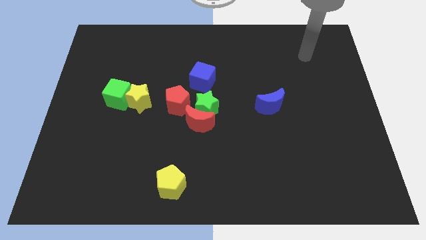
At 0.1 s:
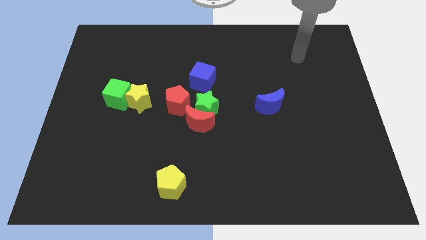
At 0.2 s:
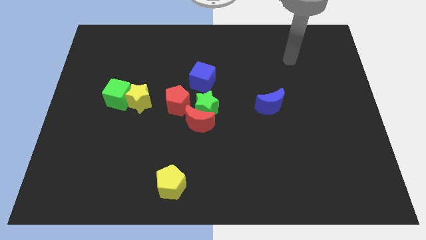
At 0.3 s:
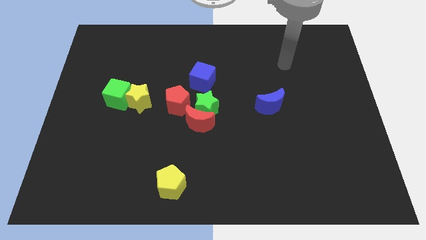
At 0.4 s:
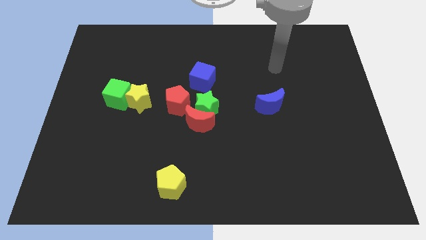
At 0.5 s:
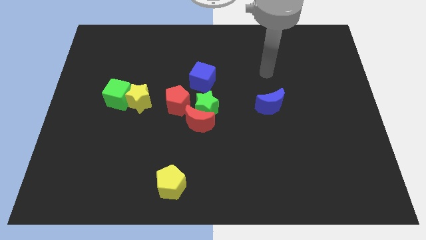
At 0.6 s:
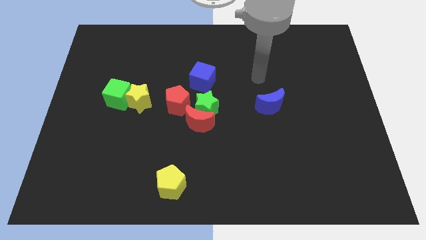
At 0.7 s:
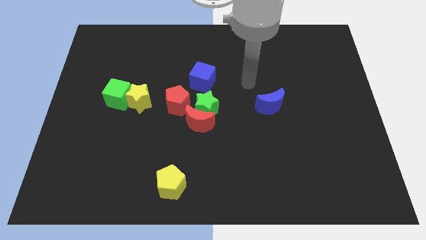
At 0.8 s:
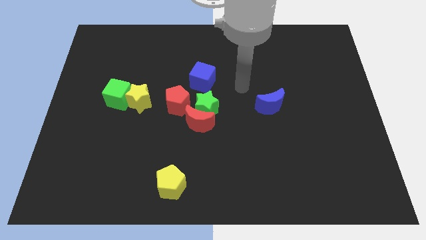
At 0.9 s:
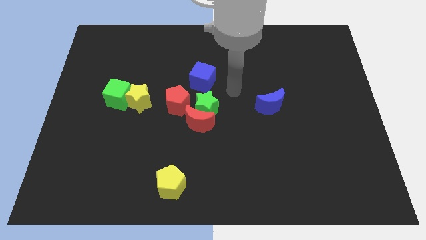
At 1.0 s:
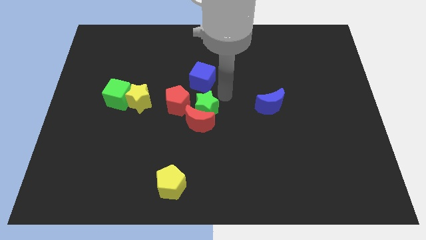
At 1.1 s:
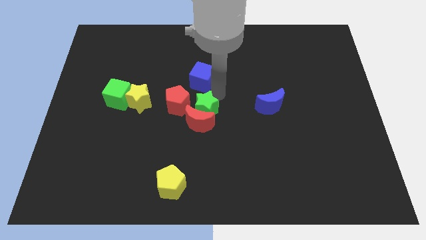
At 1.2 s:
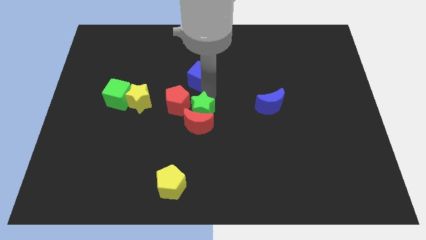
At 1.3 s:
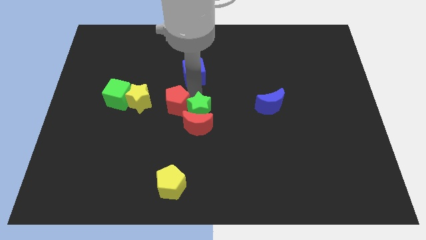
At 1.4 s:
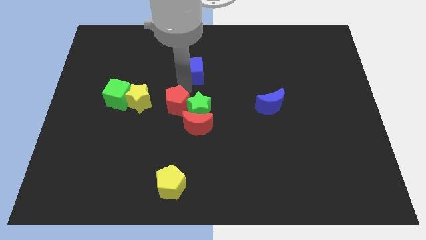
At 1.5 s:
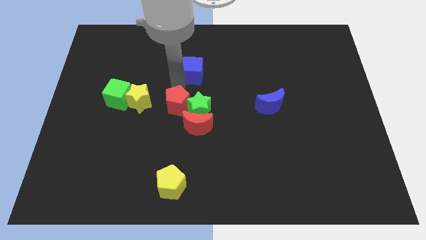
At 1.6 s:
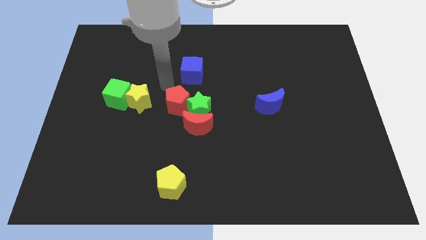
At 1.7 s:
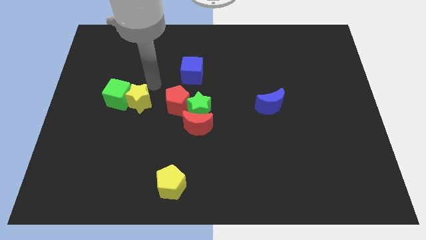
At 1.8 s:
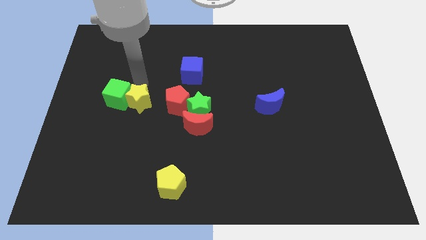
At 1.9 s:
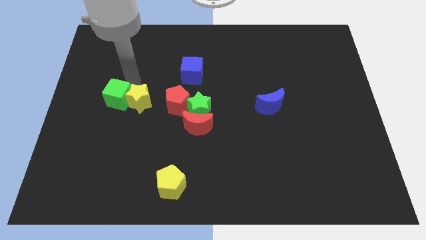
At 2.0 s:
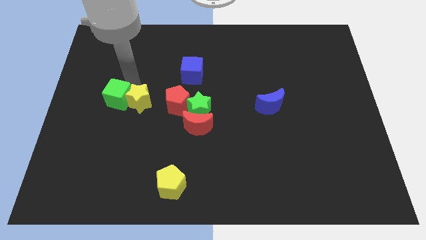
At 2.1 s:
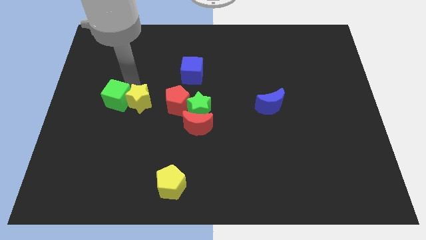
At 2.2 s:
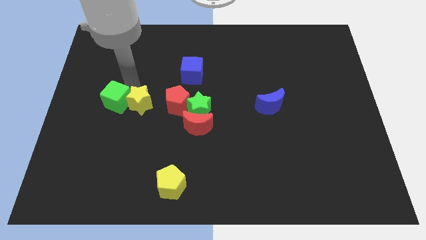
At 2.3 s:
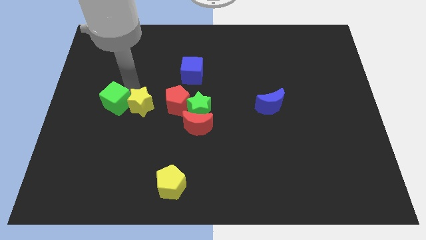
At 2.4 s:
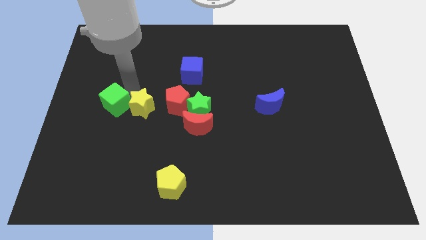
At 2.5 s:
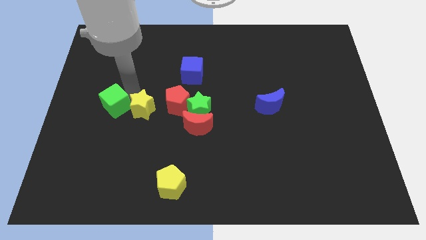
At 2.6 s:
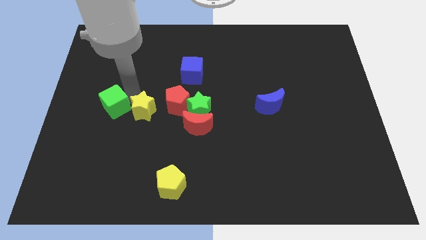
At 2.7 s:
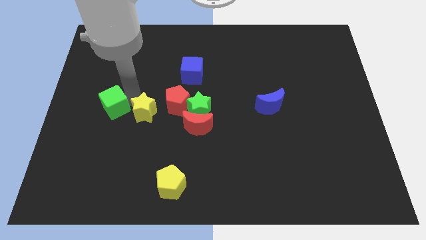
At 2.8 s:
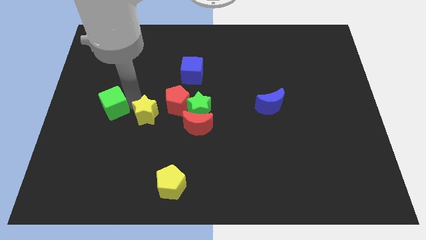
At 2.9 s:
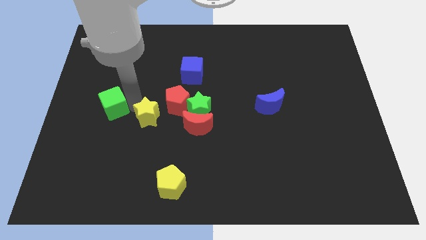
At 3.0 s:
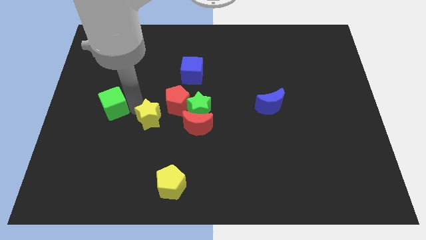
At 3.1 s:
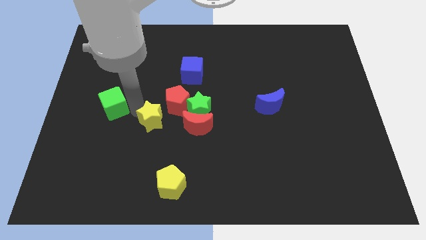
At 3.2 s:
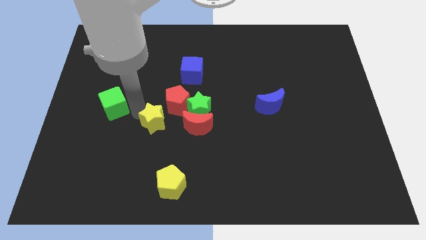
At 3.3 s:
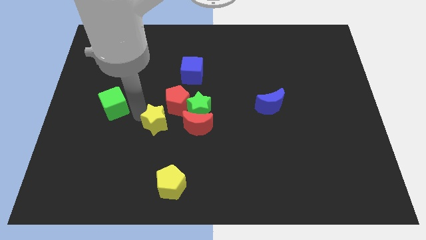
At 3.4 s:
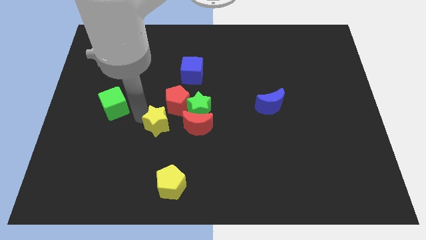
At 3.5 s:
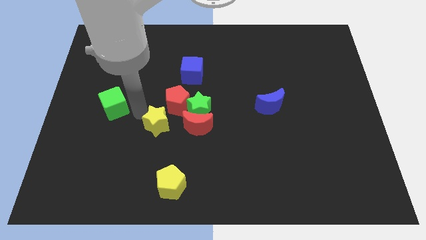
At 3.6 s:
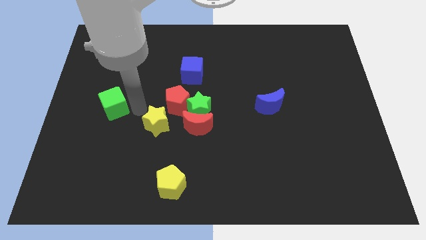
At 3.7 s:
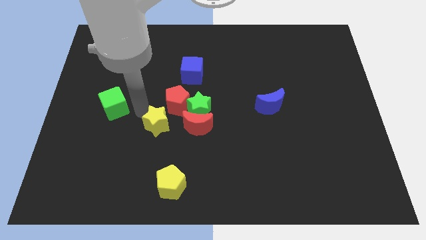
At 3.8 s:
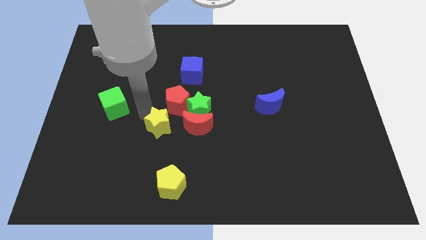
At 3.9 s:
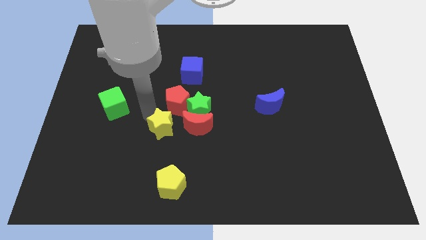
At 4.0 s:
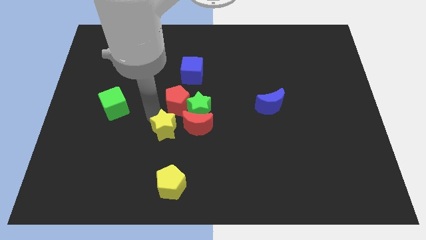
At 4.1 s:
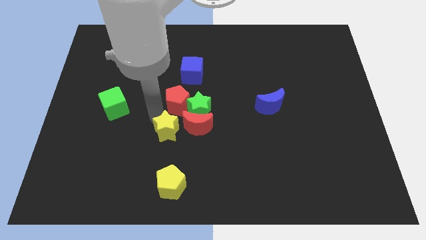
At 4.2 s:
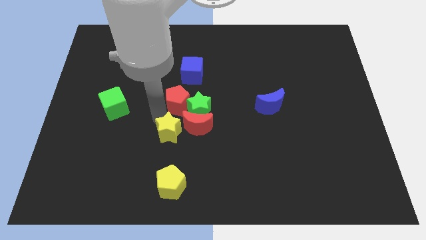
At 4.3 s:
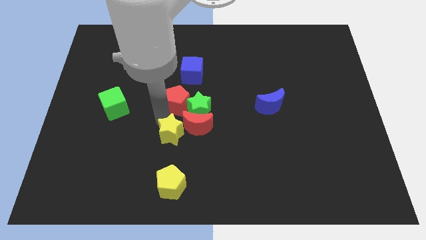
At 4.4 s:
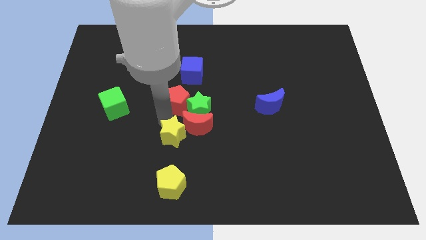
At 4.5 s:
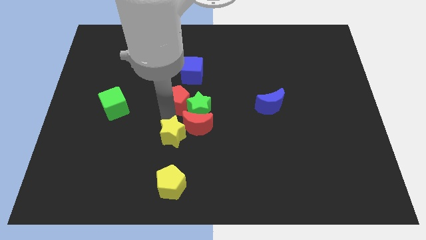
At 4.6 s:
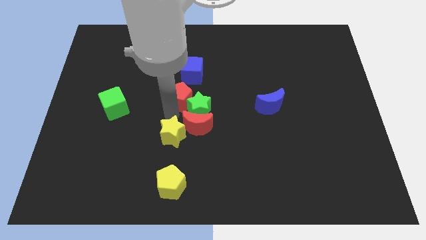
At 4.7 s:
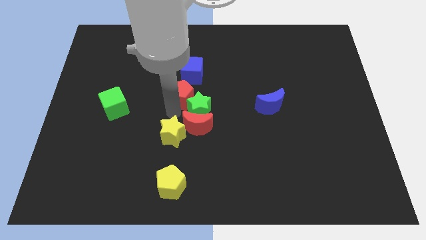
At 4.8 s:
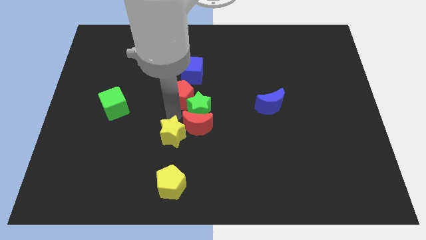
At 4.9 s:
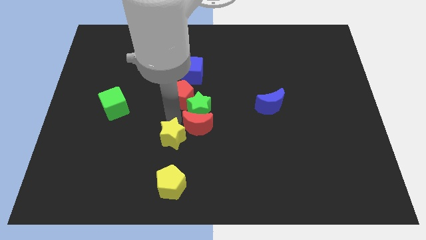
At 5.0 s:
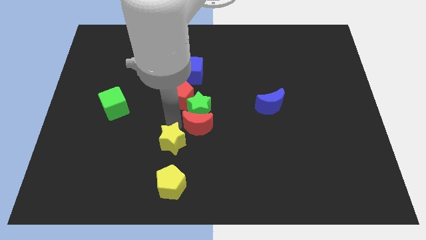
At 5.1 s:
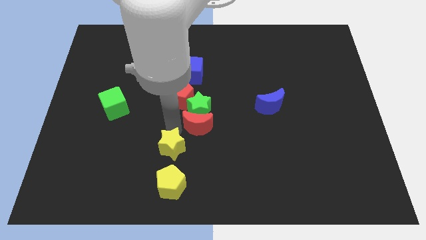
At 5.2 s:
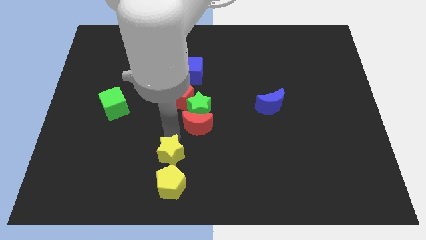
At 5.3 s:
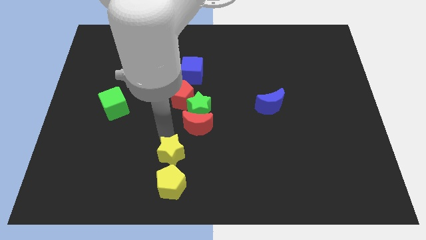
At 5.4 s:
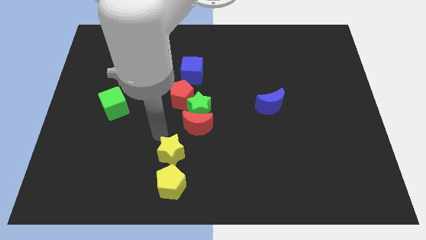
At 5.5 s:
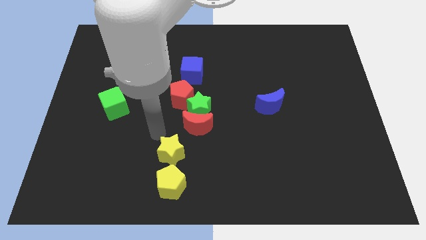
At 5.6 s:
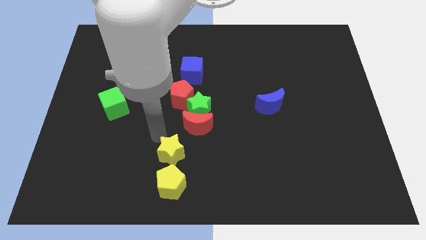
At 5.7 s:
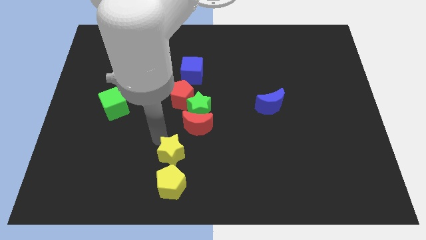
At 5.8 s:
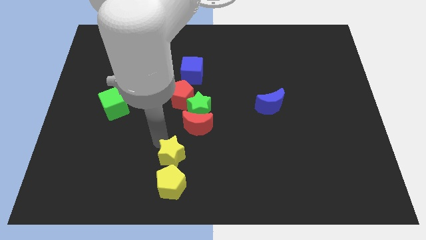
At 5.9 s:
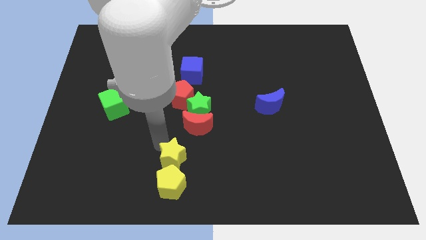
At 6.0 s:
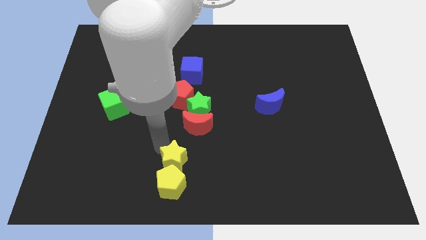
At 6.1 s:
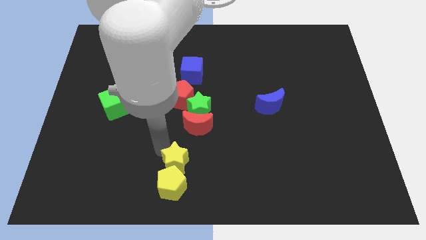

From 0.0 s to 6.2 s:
put the yellow star to the bottom

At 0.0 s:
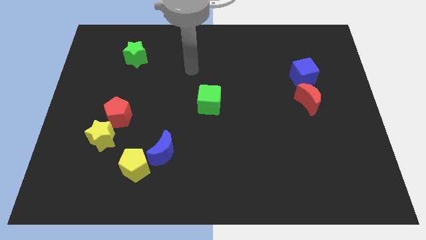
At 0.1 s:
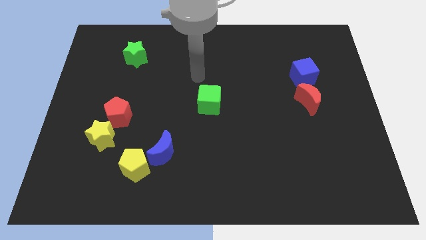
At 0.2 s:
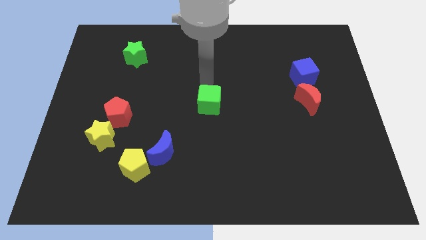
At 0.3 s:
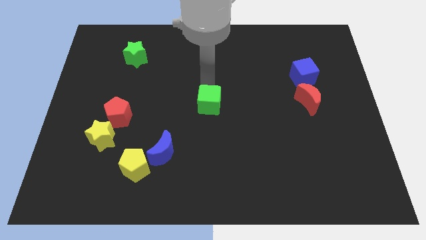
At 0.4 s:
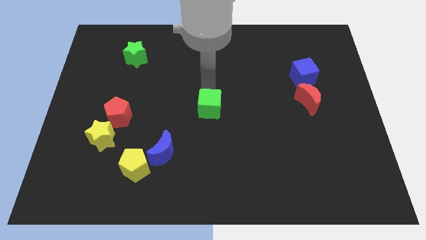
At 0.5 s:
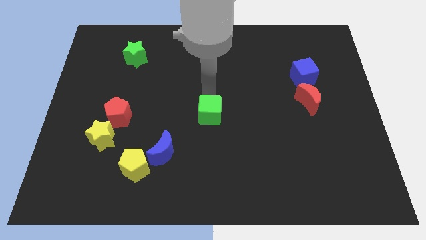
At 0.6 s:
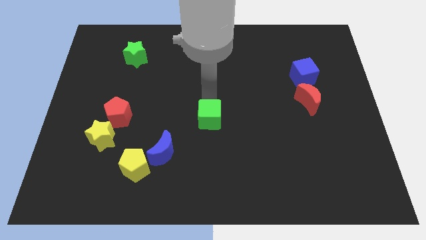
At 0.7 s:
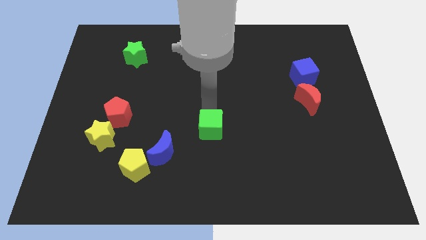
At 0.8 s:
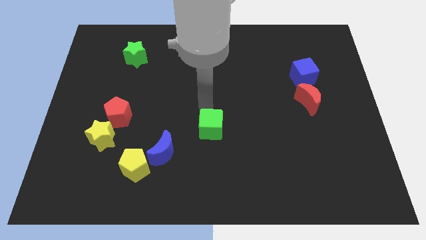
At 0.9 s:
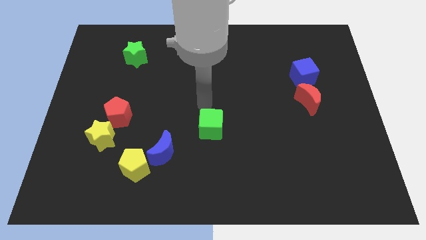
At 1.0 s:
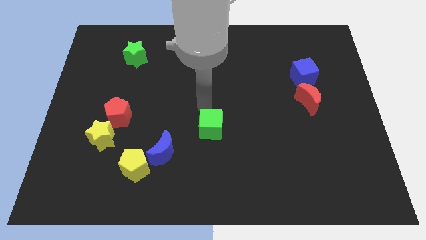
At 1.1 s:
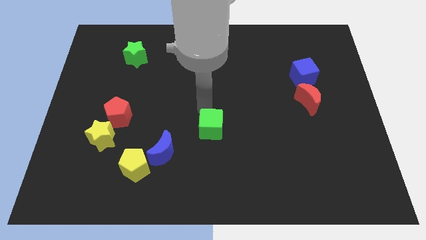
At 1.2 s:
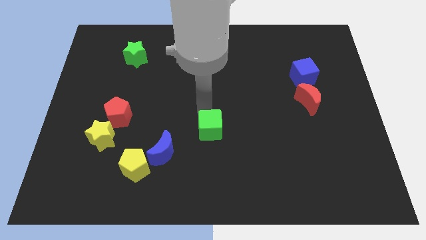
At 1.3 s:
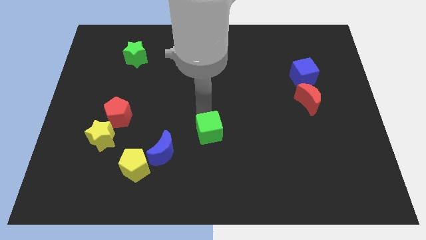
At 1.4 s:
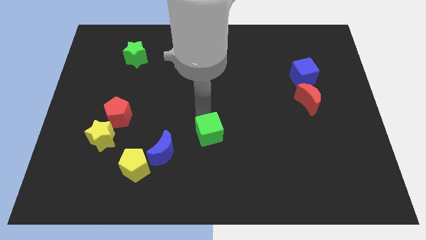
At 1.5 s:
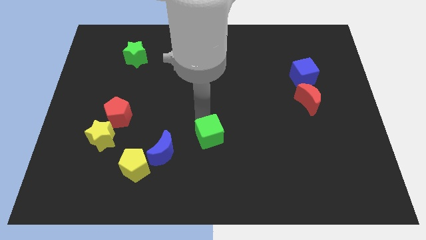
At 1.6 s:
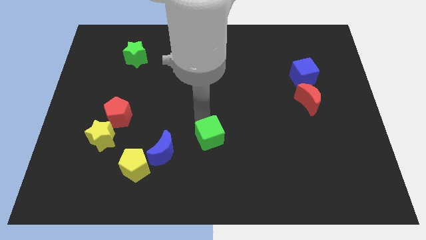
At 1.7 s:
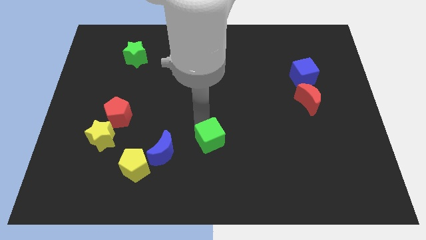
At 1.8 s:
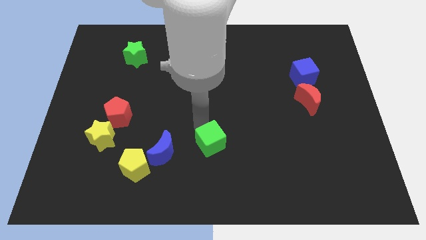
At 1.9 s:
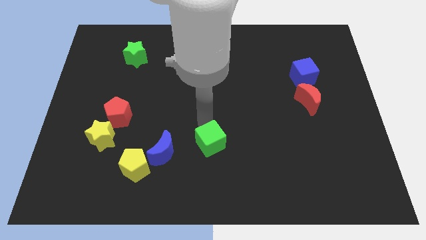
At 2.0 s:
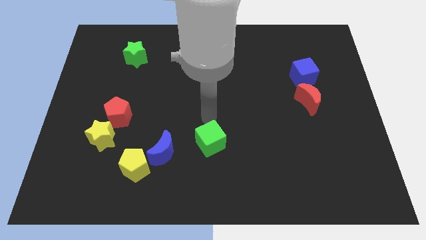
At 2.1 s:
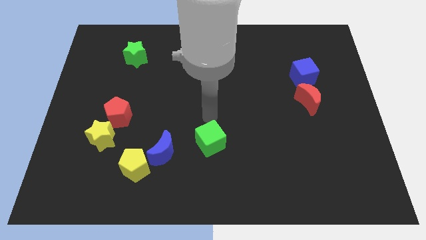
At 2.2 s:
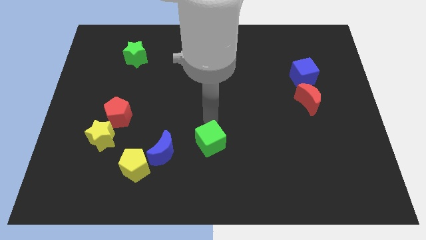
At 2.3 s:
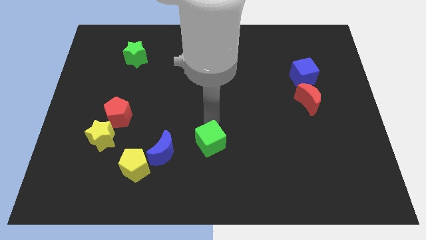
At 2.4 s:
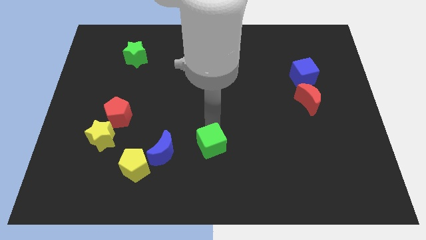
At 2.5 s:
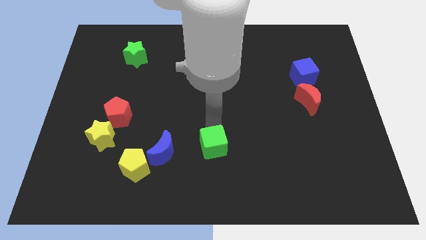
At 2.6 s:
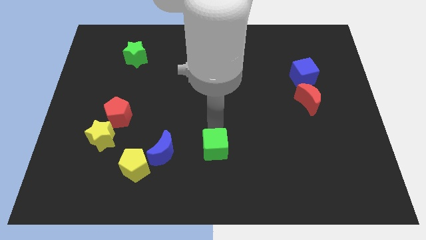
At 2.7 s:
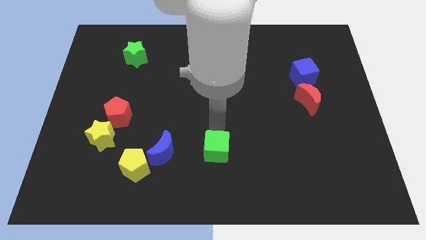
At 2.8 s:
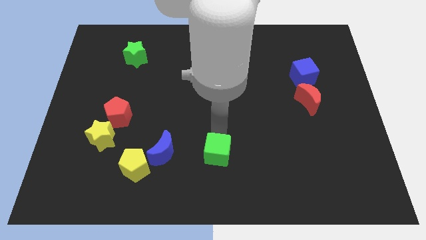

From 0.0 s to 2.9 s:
put the green cube to the bottom side
